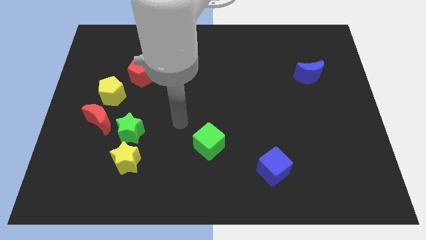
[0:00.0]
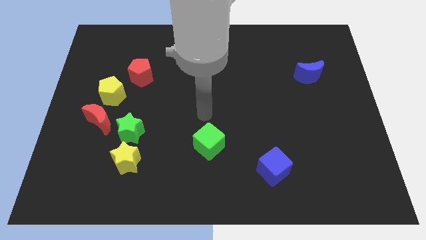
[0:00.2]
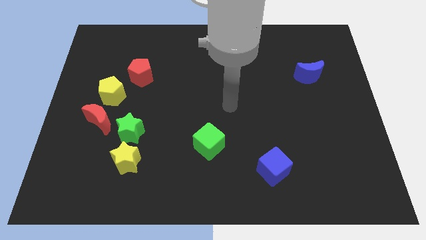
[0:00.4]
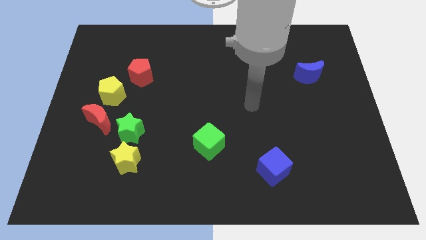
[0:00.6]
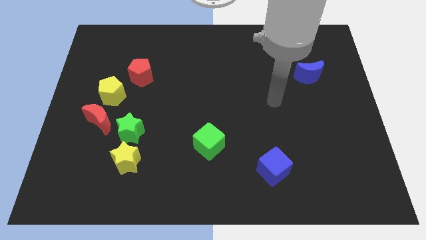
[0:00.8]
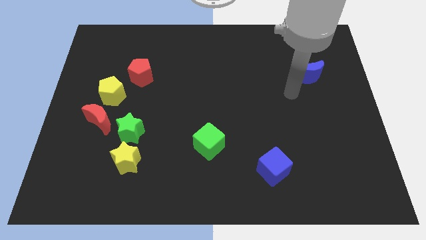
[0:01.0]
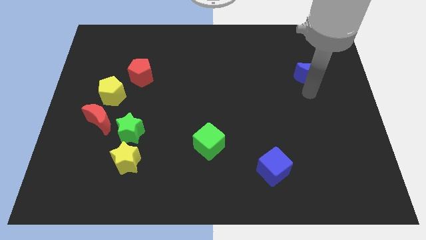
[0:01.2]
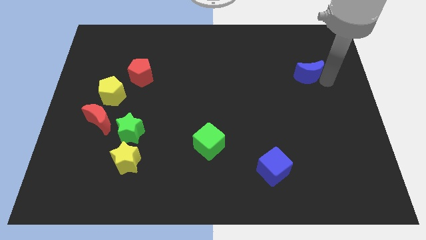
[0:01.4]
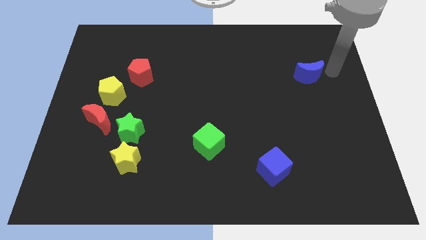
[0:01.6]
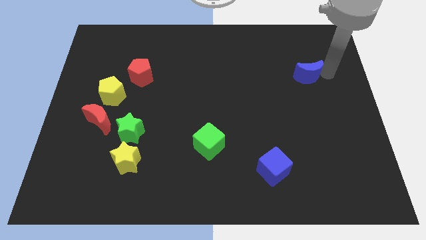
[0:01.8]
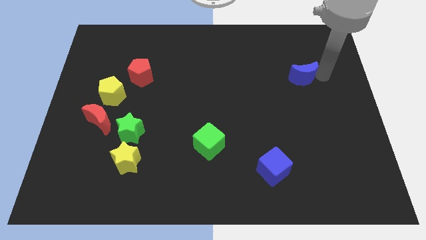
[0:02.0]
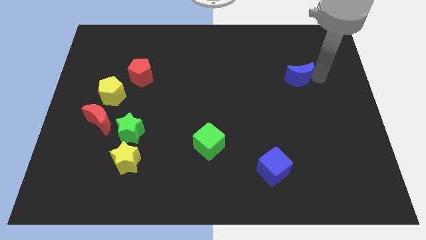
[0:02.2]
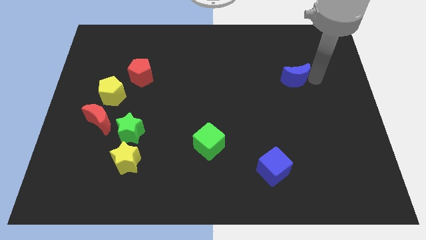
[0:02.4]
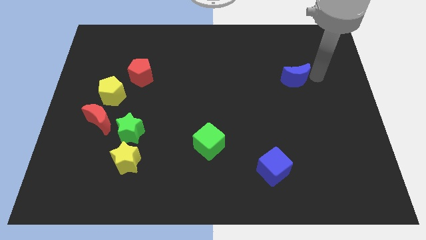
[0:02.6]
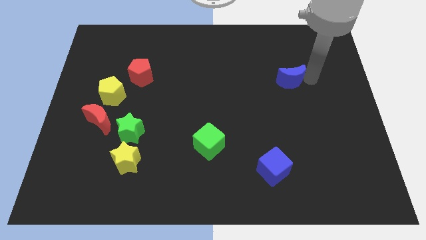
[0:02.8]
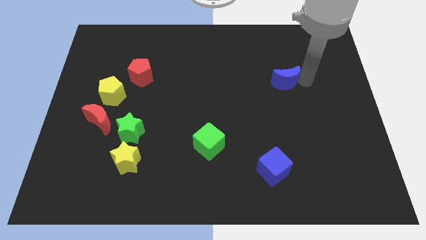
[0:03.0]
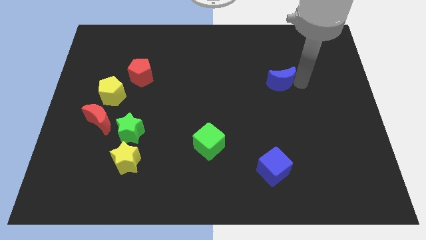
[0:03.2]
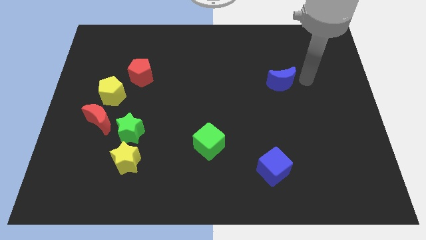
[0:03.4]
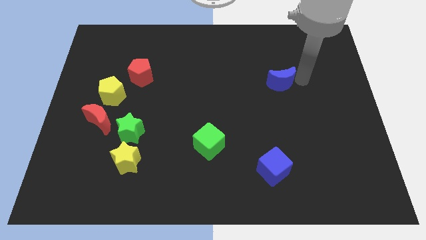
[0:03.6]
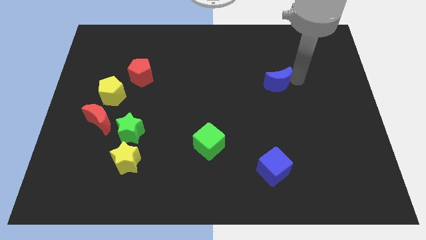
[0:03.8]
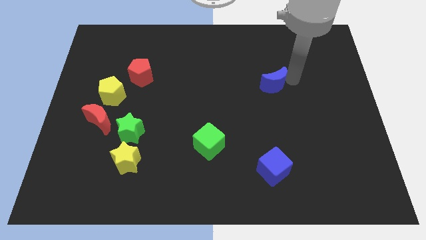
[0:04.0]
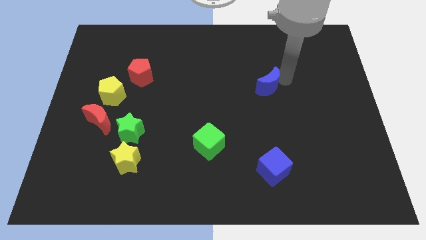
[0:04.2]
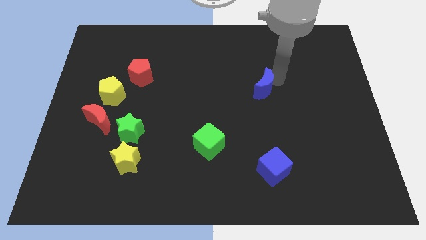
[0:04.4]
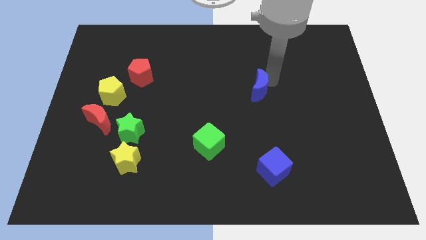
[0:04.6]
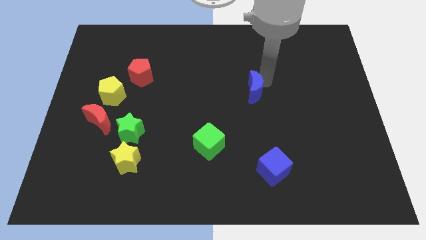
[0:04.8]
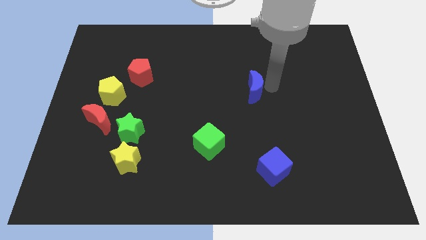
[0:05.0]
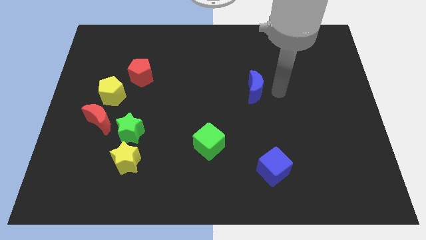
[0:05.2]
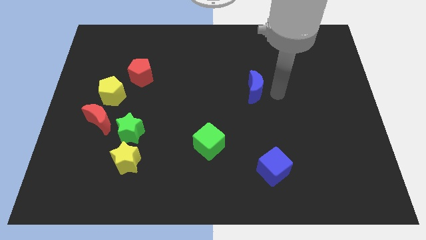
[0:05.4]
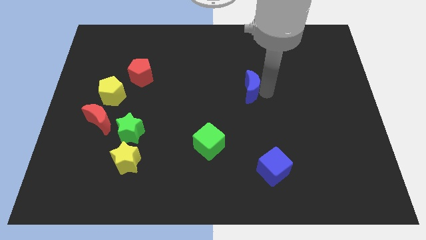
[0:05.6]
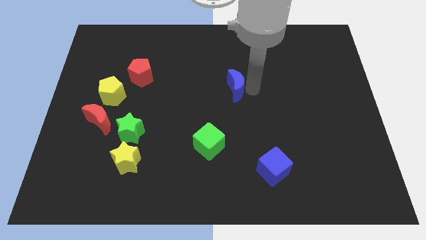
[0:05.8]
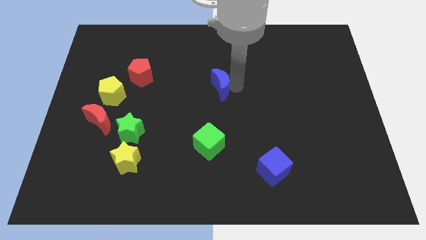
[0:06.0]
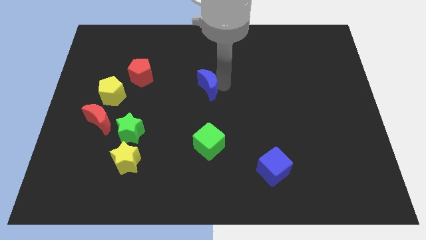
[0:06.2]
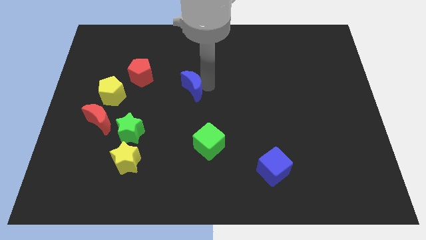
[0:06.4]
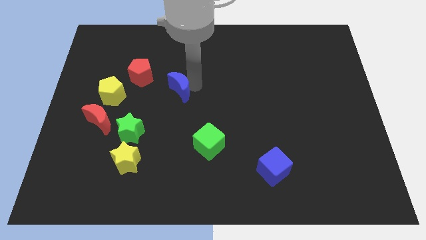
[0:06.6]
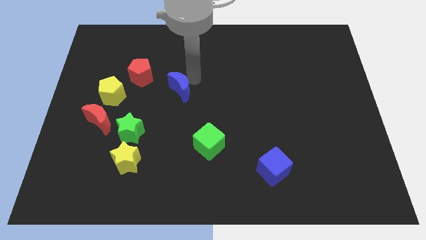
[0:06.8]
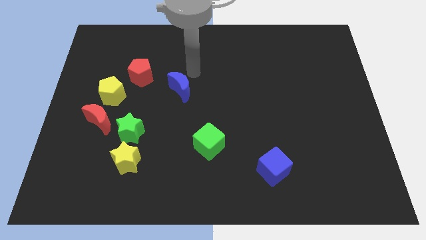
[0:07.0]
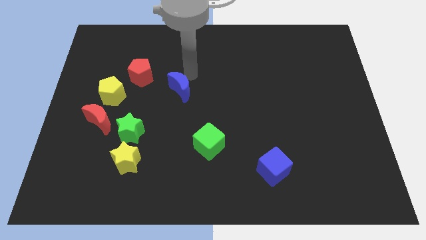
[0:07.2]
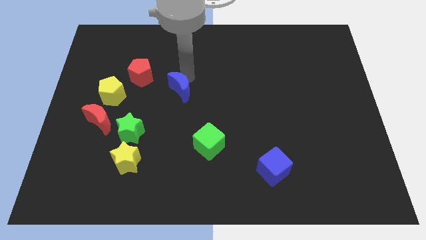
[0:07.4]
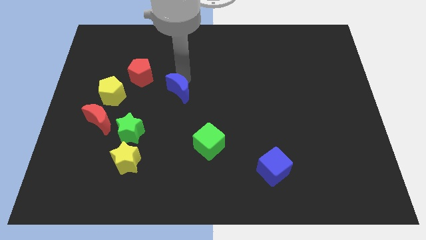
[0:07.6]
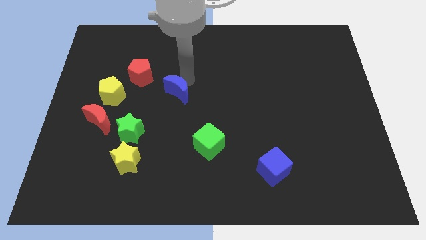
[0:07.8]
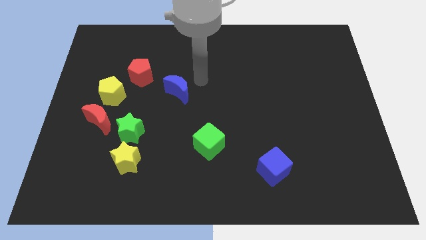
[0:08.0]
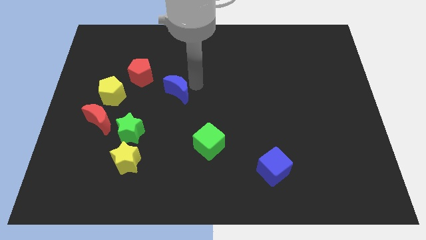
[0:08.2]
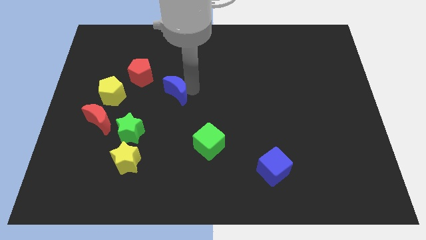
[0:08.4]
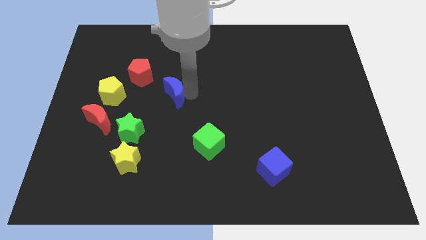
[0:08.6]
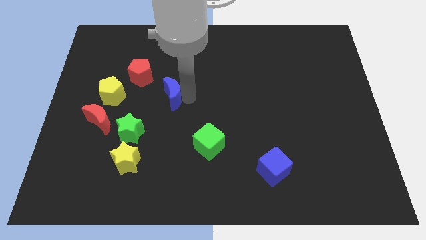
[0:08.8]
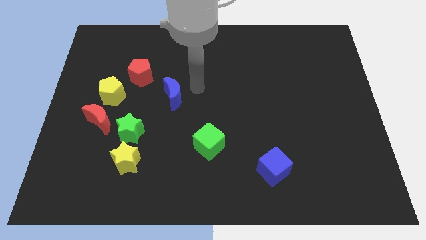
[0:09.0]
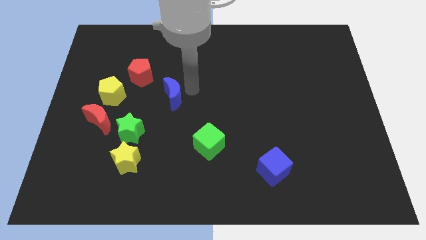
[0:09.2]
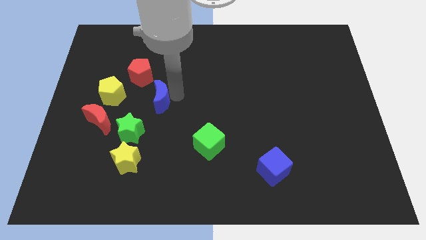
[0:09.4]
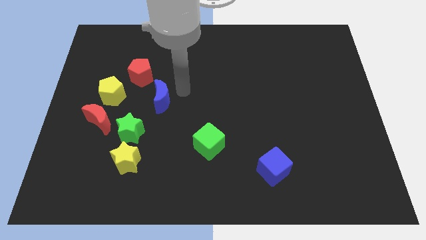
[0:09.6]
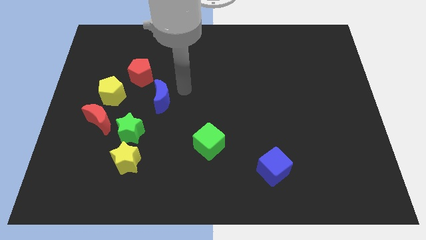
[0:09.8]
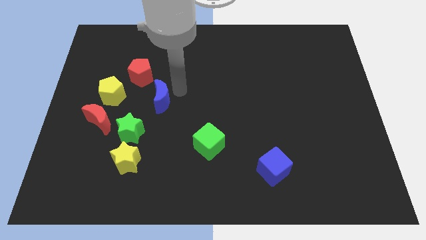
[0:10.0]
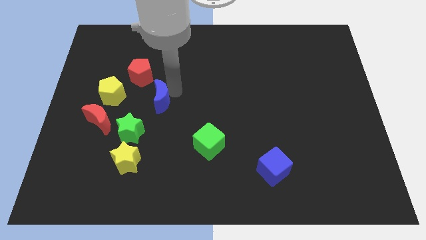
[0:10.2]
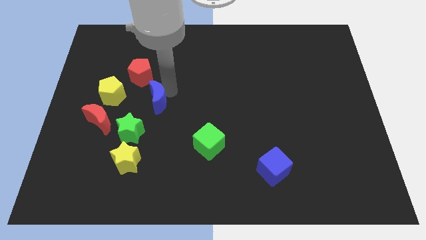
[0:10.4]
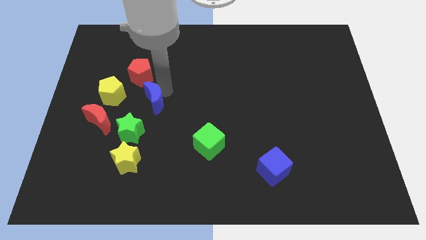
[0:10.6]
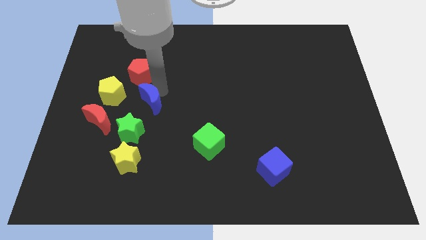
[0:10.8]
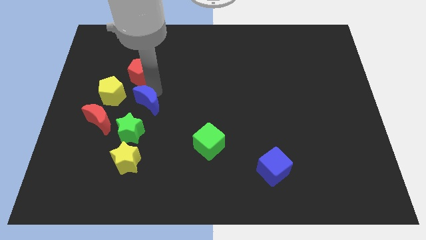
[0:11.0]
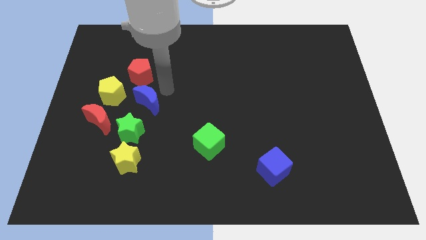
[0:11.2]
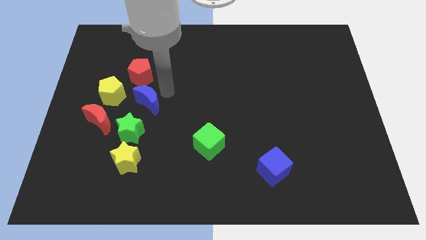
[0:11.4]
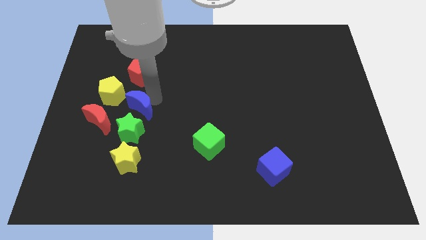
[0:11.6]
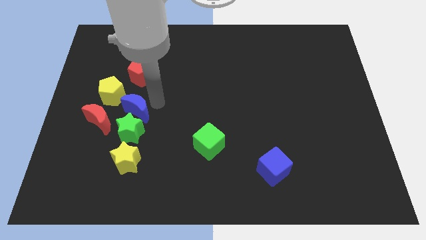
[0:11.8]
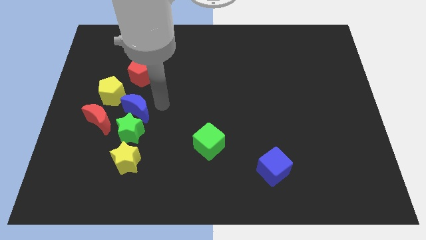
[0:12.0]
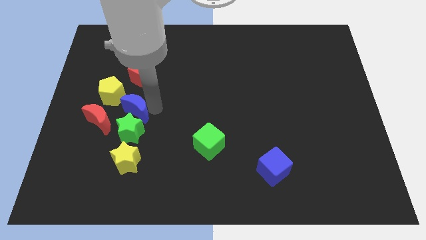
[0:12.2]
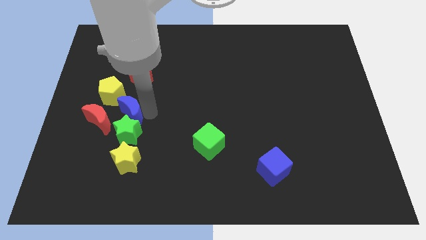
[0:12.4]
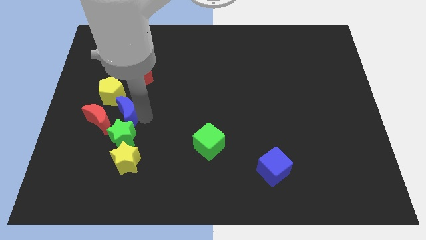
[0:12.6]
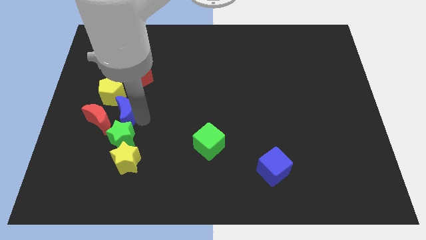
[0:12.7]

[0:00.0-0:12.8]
slide the blue moon close to the red moon
